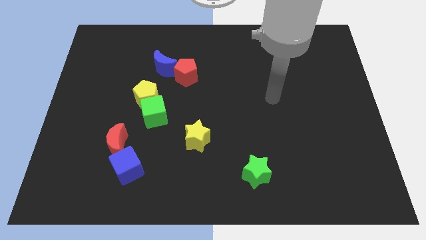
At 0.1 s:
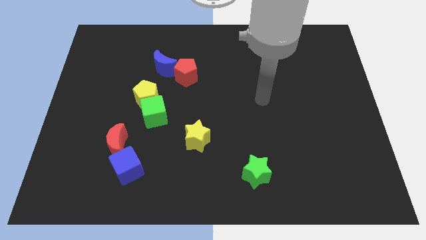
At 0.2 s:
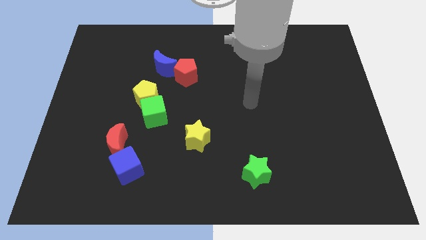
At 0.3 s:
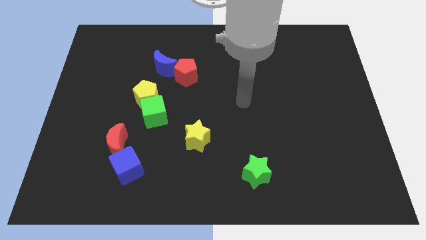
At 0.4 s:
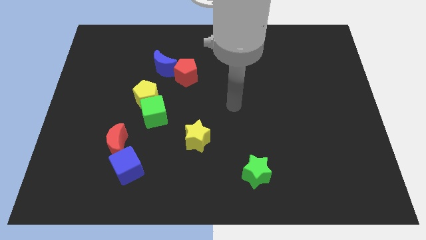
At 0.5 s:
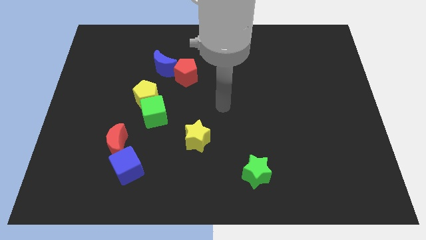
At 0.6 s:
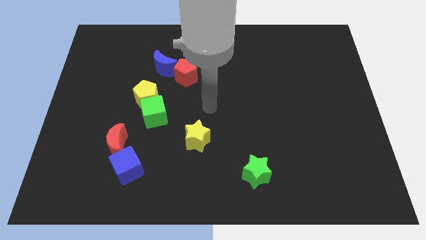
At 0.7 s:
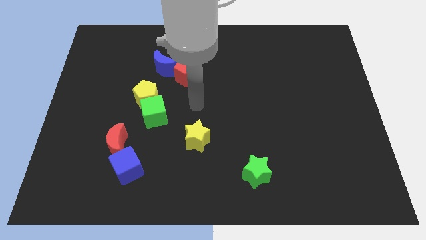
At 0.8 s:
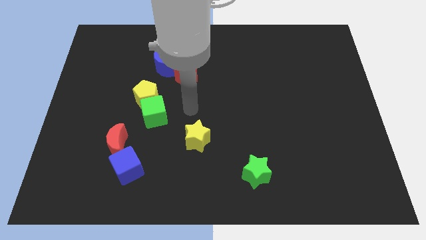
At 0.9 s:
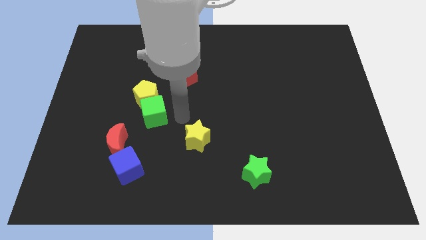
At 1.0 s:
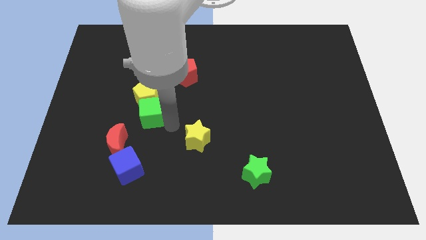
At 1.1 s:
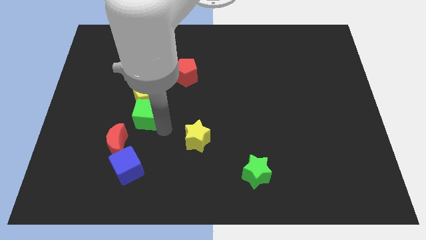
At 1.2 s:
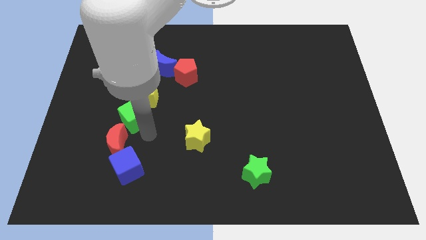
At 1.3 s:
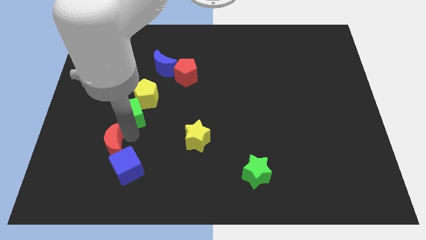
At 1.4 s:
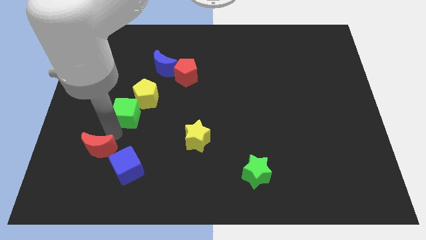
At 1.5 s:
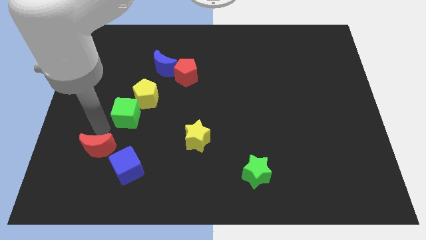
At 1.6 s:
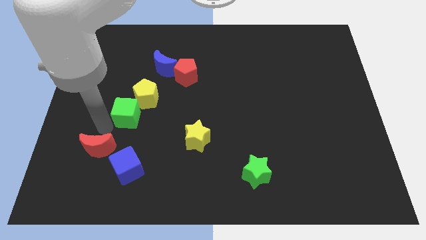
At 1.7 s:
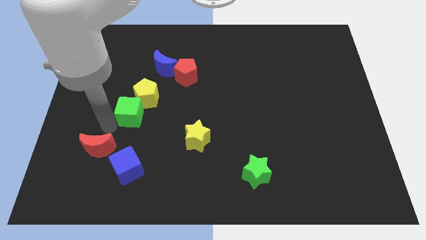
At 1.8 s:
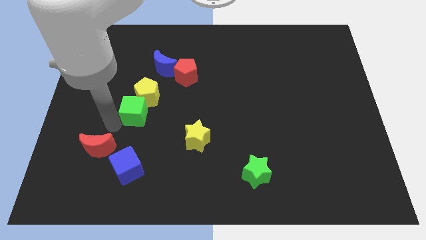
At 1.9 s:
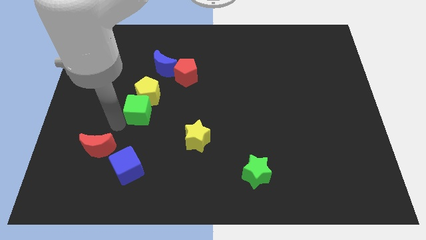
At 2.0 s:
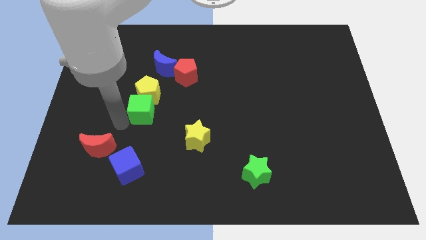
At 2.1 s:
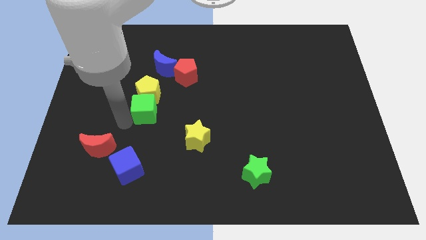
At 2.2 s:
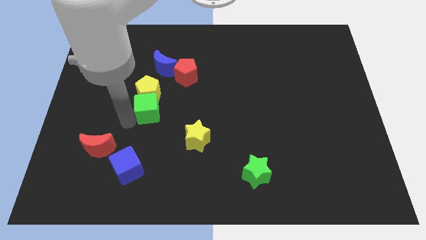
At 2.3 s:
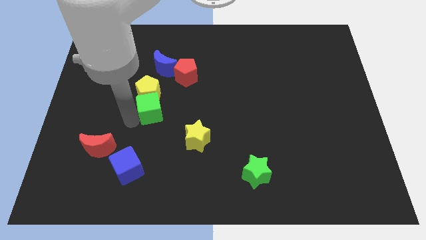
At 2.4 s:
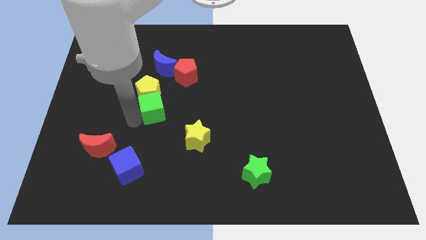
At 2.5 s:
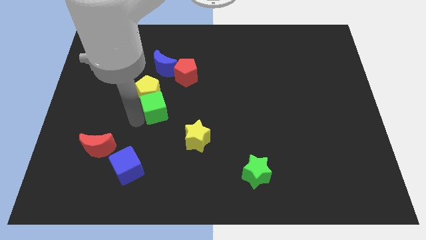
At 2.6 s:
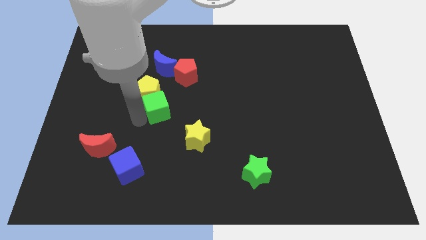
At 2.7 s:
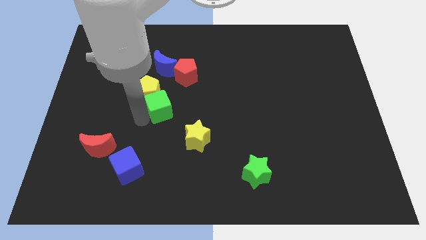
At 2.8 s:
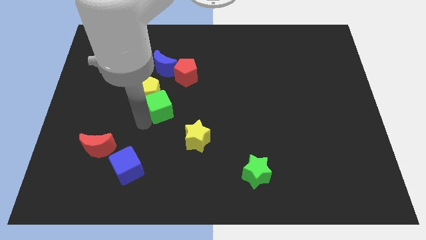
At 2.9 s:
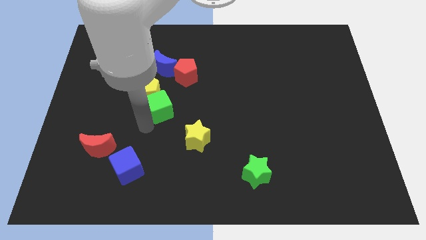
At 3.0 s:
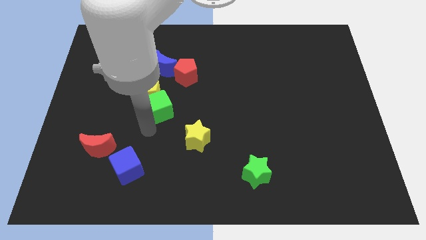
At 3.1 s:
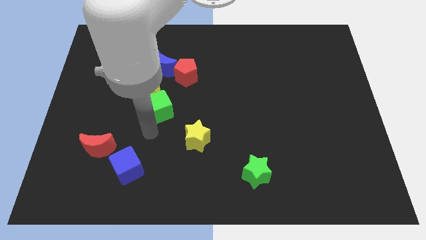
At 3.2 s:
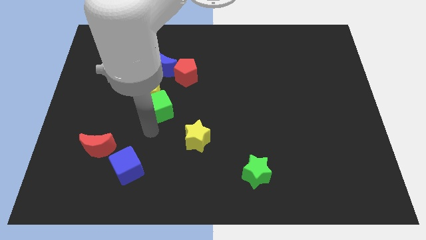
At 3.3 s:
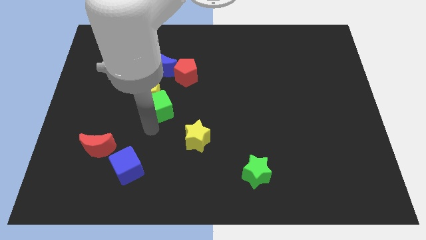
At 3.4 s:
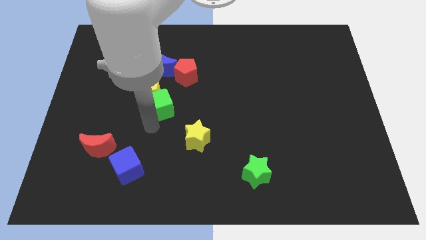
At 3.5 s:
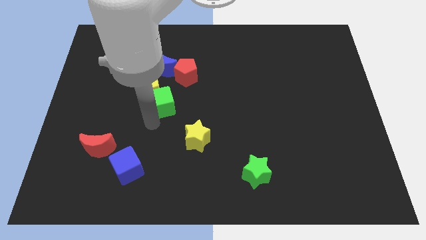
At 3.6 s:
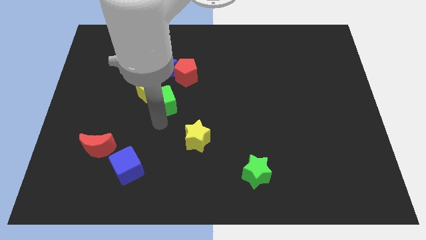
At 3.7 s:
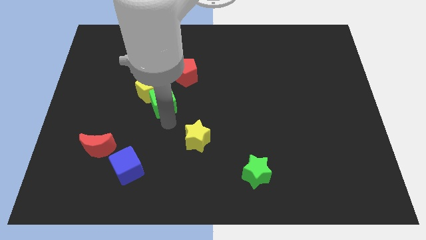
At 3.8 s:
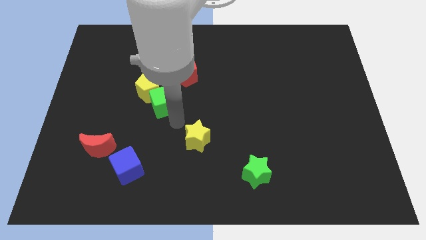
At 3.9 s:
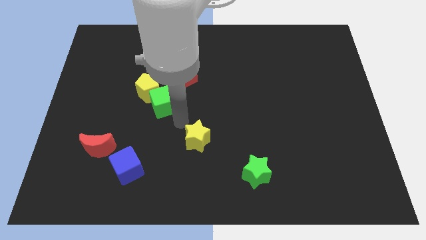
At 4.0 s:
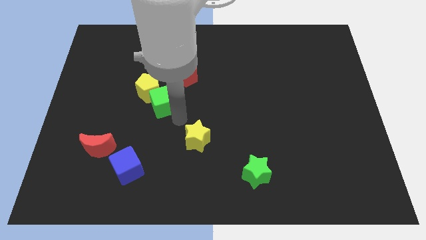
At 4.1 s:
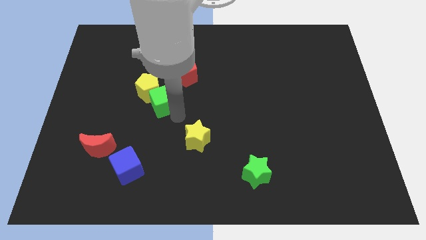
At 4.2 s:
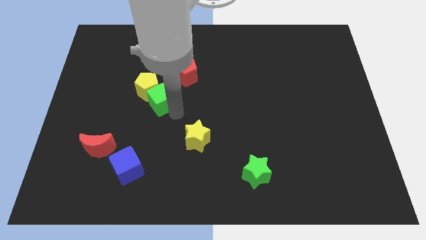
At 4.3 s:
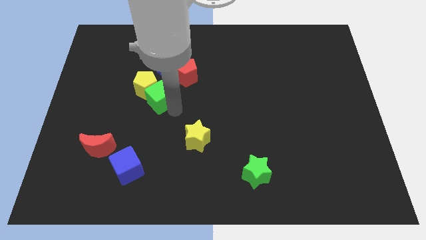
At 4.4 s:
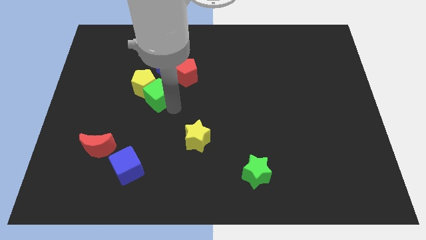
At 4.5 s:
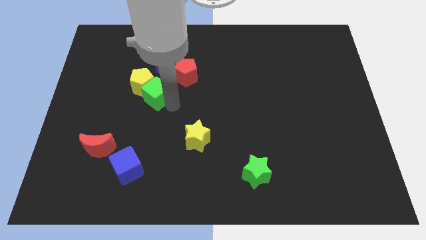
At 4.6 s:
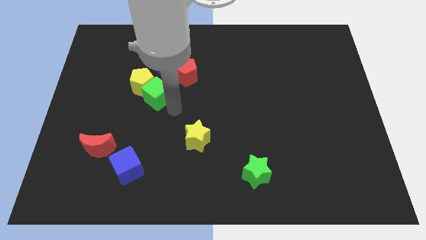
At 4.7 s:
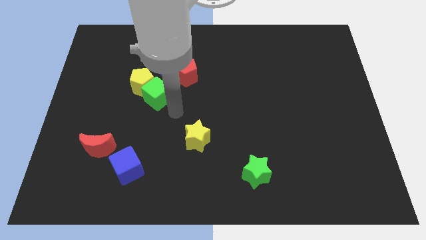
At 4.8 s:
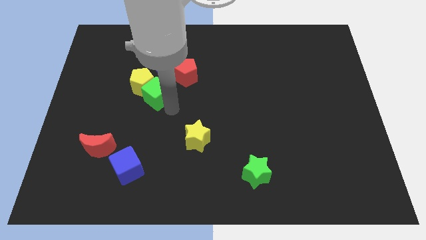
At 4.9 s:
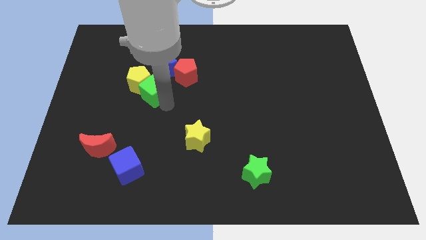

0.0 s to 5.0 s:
move the green cube diagonally down and to the left of the blue moon

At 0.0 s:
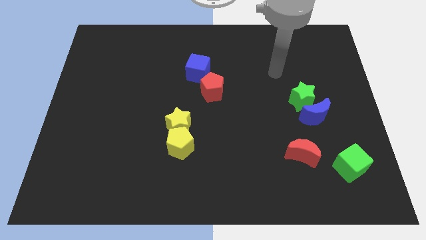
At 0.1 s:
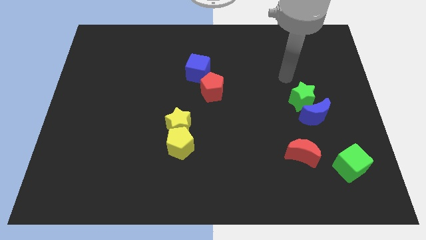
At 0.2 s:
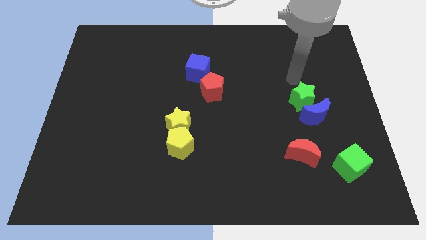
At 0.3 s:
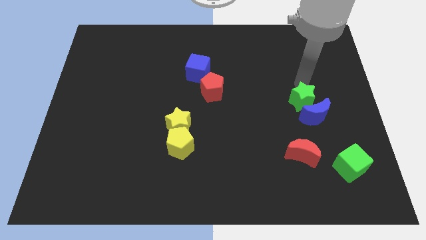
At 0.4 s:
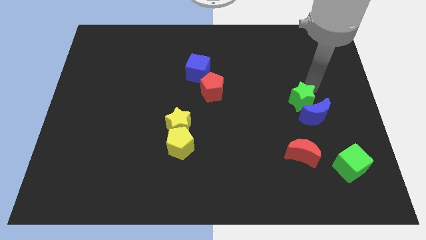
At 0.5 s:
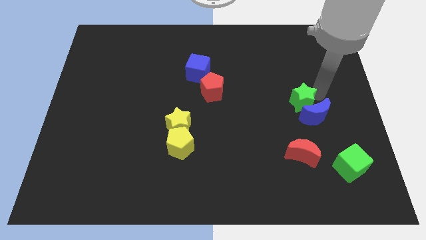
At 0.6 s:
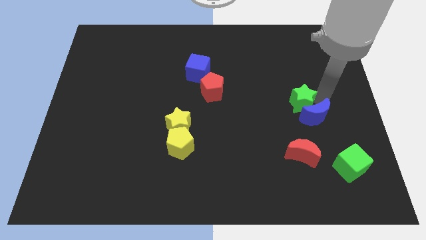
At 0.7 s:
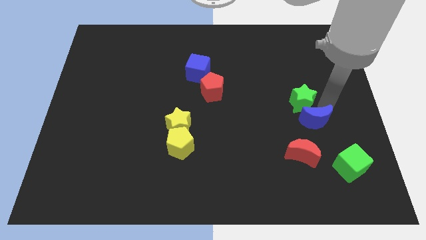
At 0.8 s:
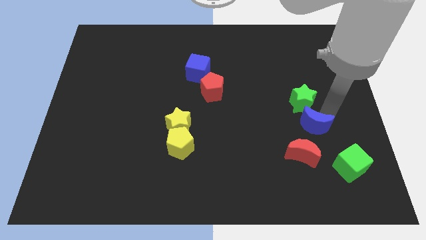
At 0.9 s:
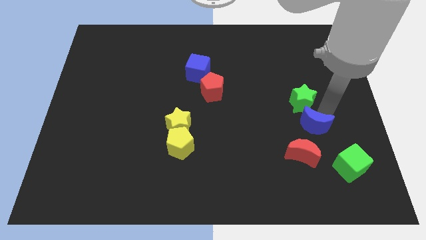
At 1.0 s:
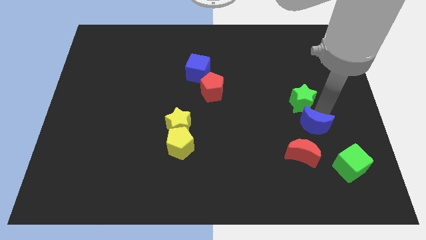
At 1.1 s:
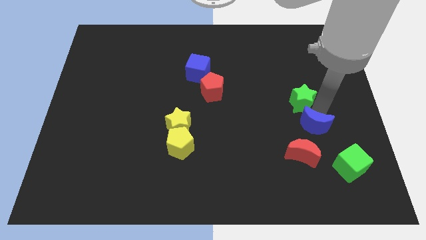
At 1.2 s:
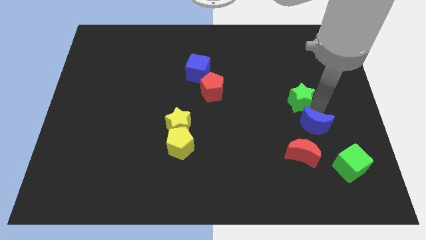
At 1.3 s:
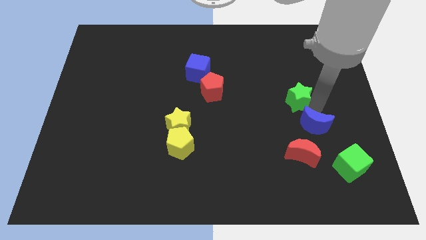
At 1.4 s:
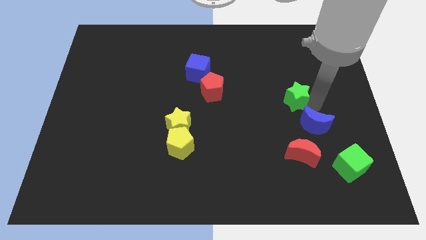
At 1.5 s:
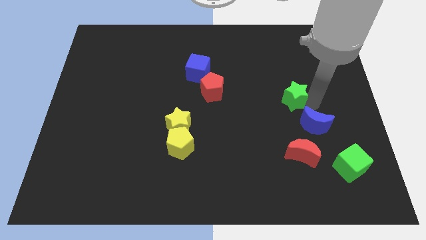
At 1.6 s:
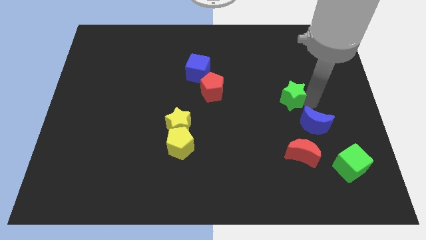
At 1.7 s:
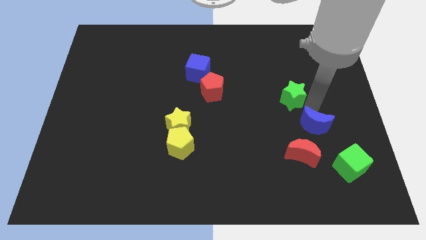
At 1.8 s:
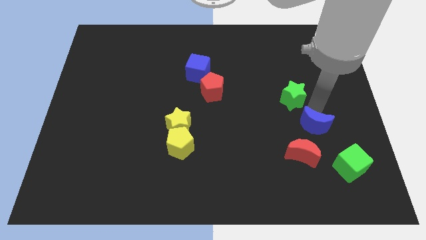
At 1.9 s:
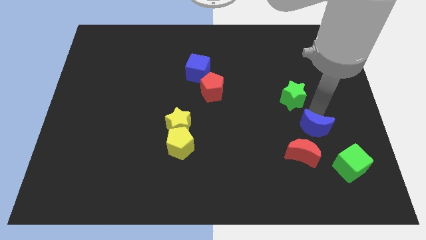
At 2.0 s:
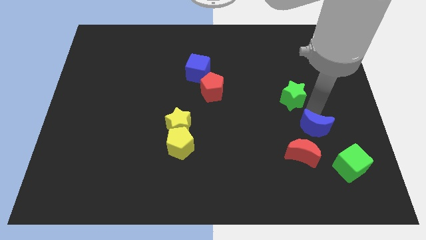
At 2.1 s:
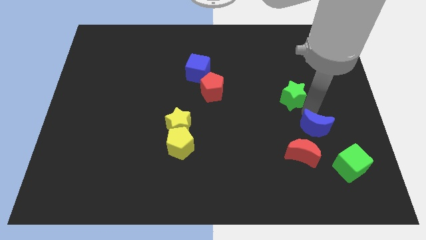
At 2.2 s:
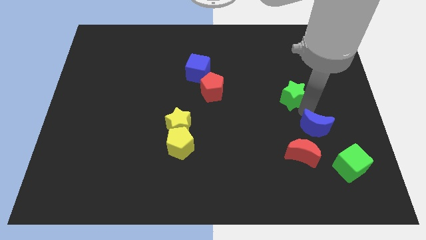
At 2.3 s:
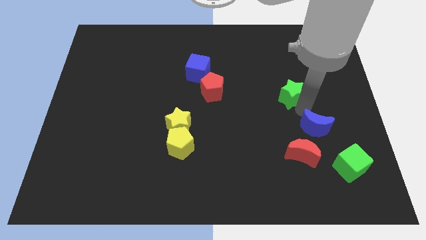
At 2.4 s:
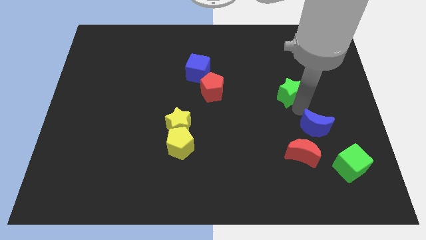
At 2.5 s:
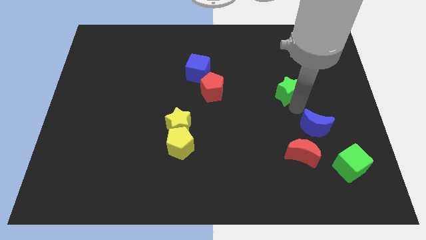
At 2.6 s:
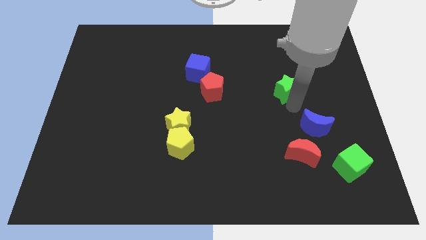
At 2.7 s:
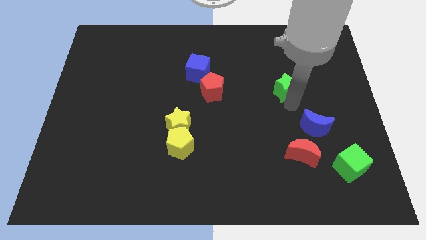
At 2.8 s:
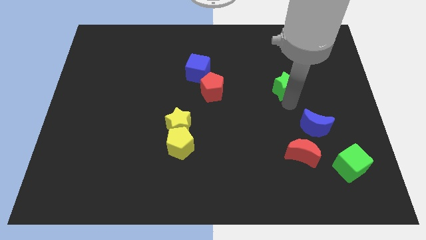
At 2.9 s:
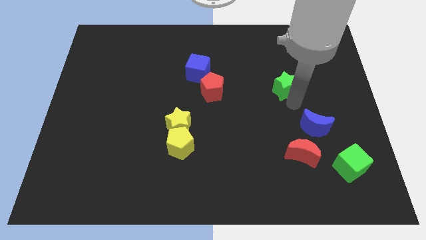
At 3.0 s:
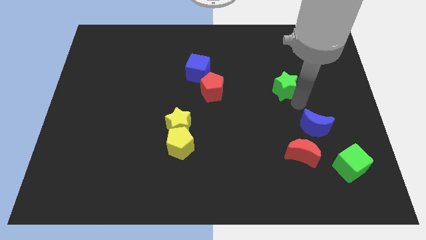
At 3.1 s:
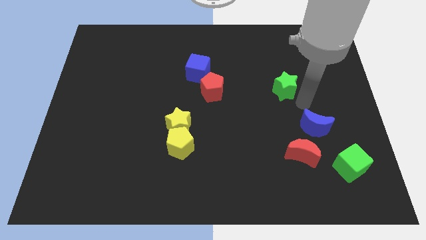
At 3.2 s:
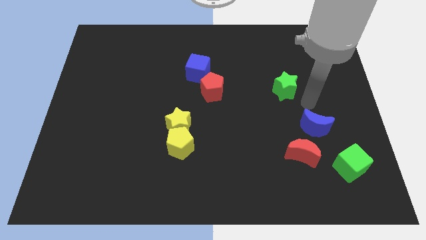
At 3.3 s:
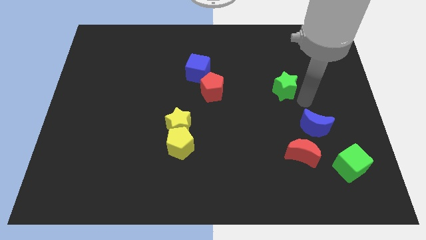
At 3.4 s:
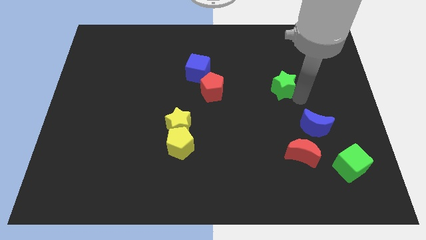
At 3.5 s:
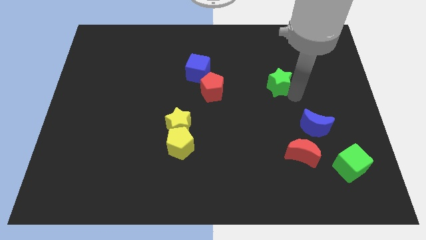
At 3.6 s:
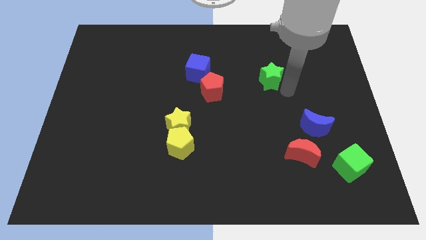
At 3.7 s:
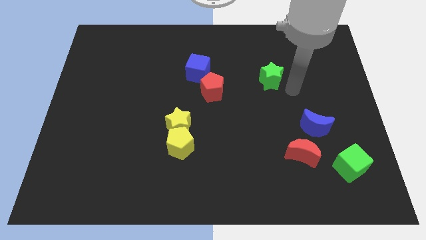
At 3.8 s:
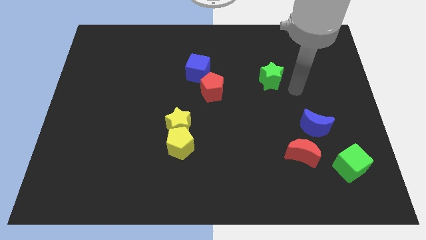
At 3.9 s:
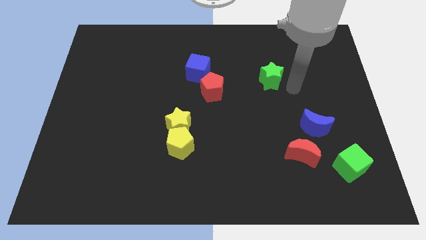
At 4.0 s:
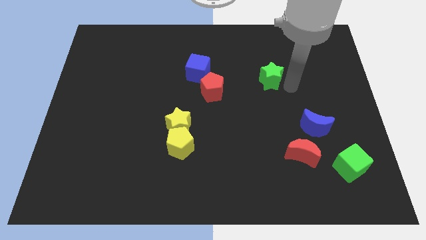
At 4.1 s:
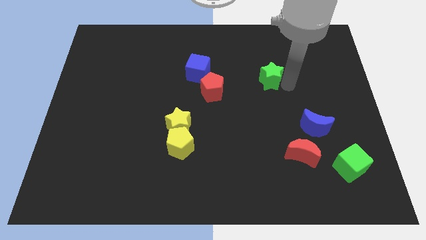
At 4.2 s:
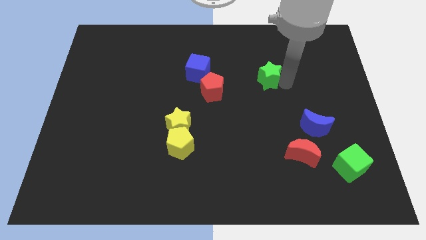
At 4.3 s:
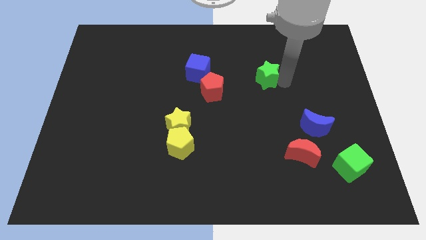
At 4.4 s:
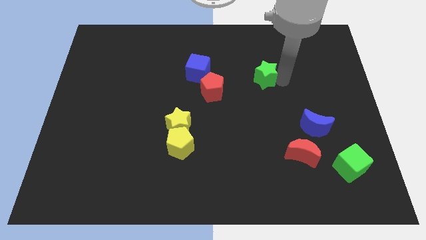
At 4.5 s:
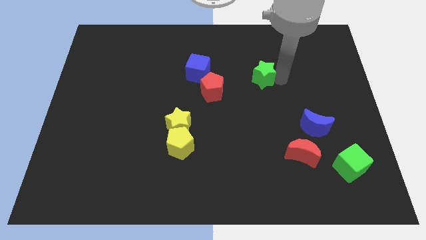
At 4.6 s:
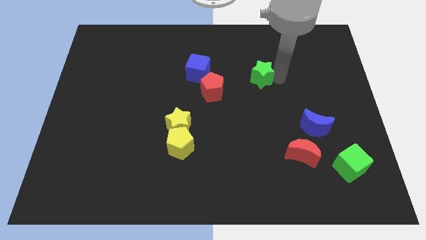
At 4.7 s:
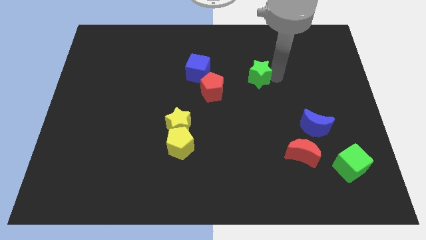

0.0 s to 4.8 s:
move the green star just right of the blue cube
